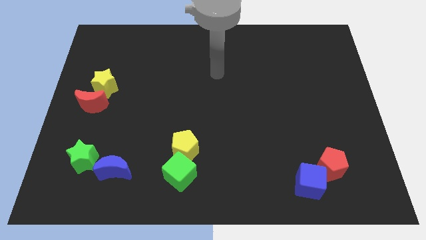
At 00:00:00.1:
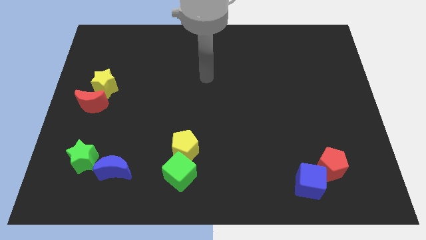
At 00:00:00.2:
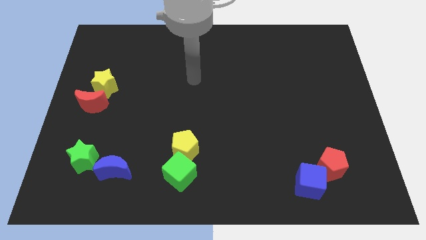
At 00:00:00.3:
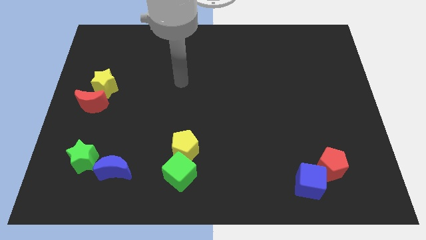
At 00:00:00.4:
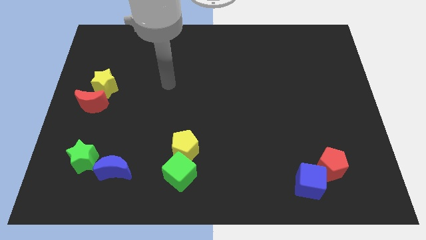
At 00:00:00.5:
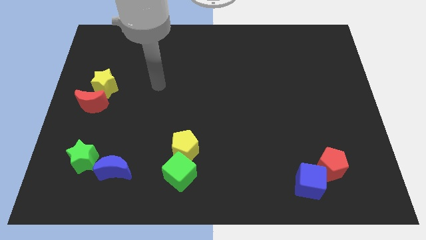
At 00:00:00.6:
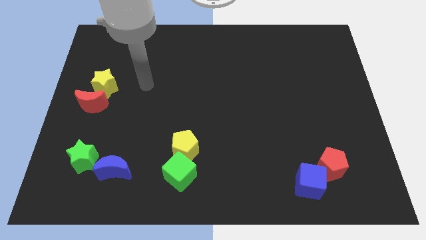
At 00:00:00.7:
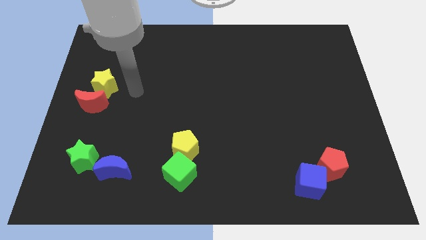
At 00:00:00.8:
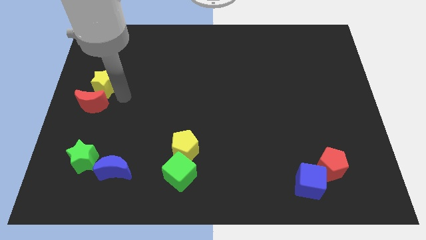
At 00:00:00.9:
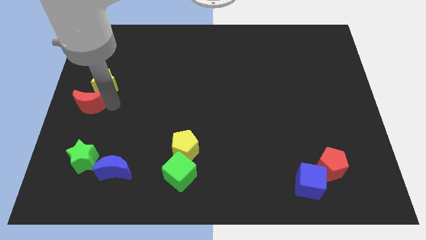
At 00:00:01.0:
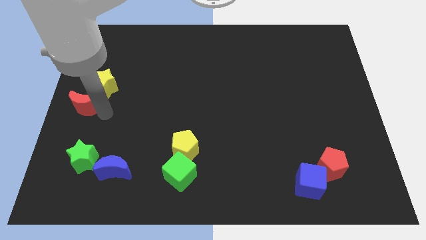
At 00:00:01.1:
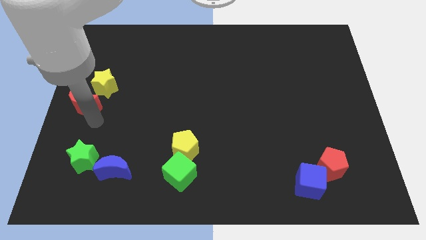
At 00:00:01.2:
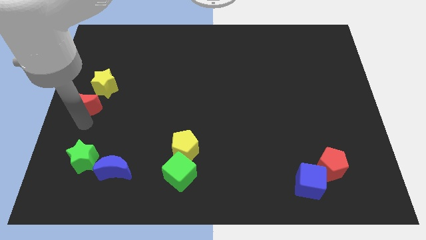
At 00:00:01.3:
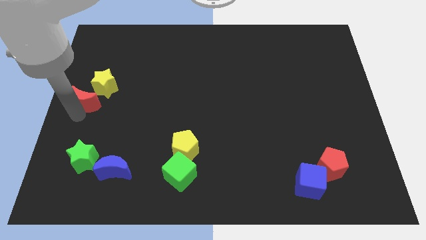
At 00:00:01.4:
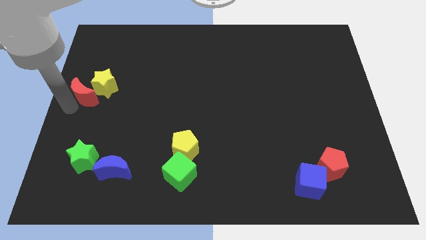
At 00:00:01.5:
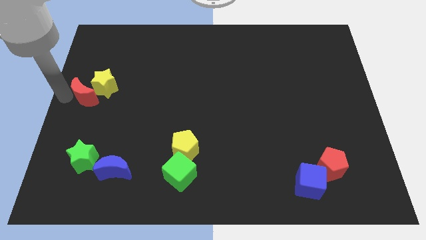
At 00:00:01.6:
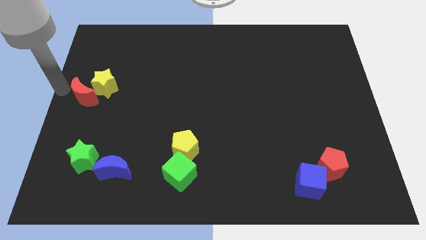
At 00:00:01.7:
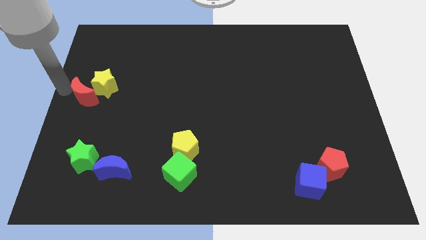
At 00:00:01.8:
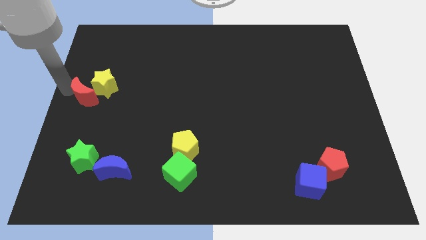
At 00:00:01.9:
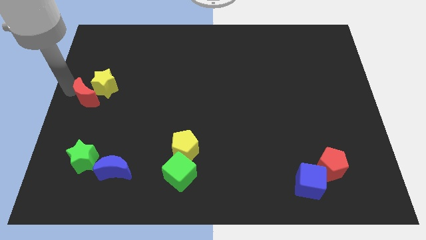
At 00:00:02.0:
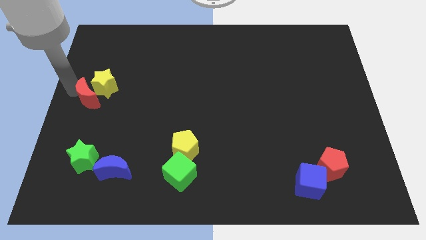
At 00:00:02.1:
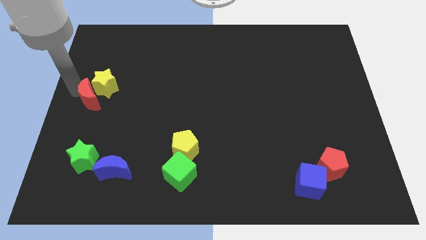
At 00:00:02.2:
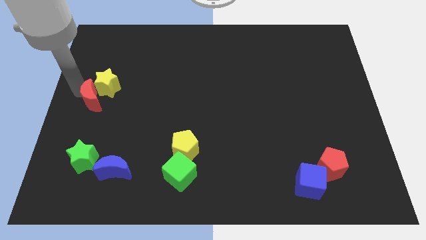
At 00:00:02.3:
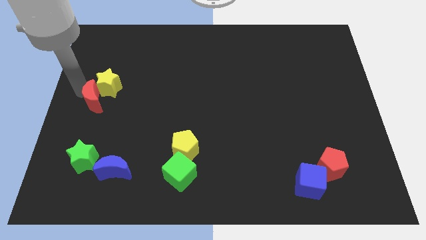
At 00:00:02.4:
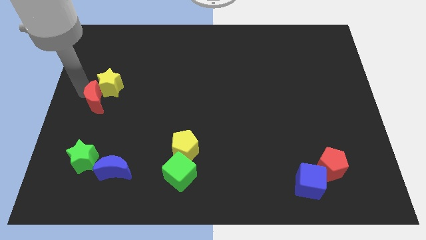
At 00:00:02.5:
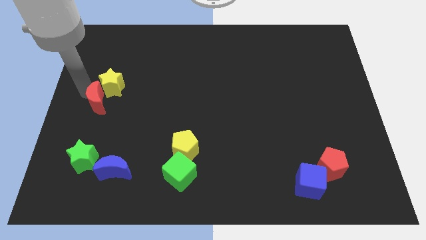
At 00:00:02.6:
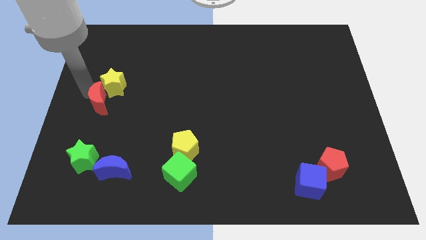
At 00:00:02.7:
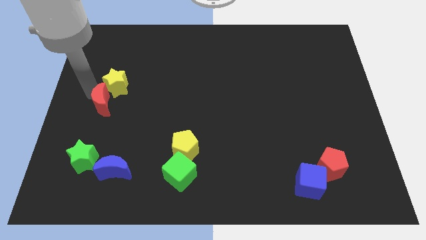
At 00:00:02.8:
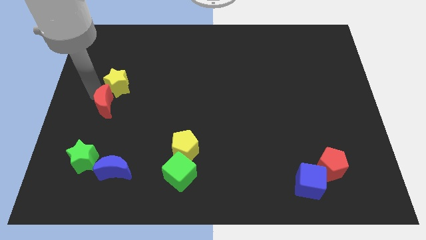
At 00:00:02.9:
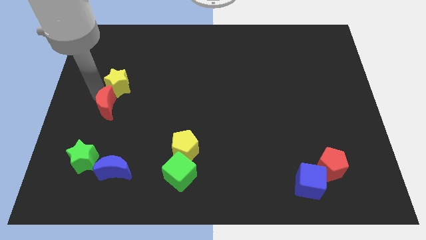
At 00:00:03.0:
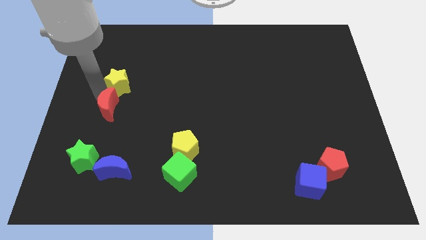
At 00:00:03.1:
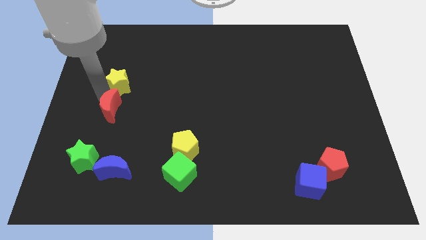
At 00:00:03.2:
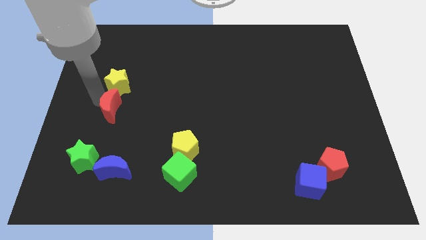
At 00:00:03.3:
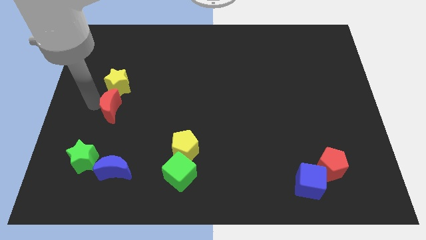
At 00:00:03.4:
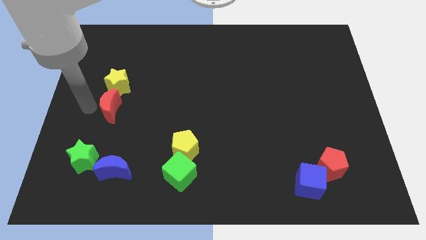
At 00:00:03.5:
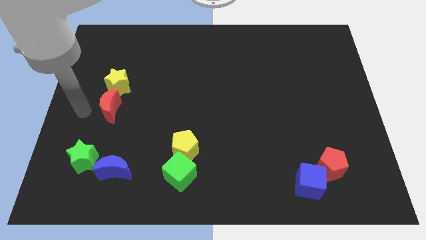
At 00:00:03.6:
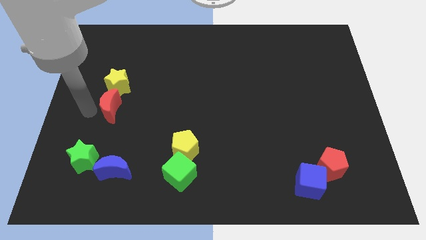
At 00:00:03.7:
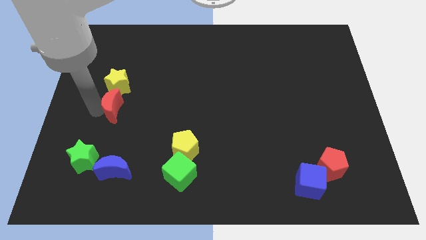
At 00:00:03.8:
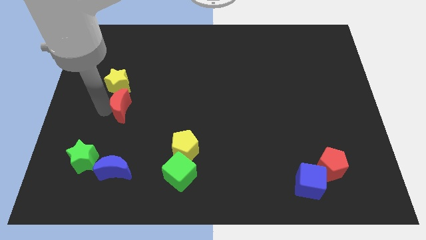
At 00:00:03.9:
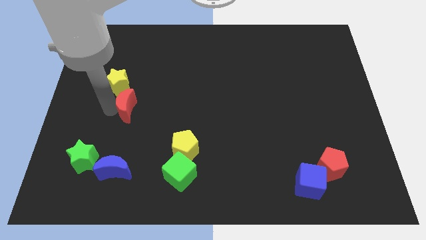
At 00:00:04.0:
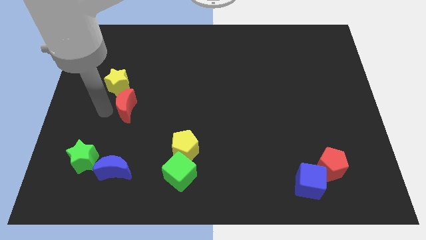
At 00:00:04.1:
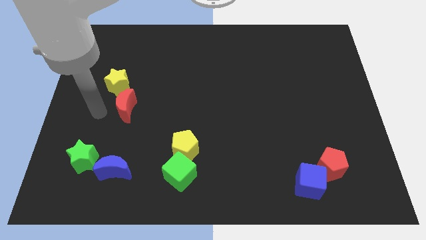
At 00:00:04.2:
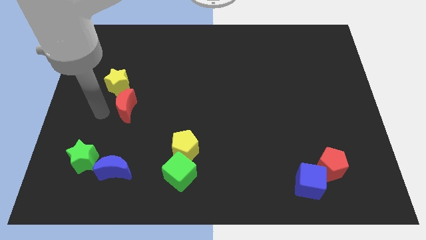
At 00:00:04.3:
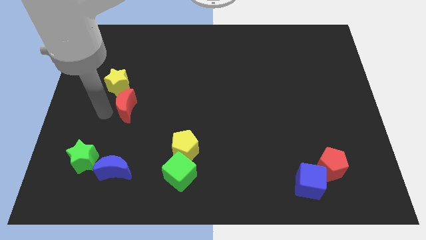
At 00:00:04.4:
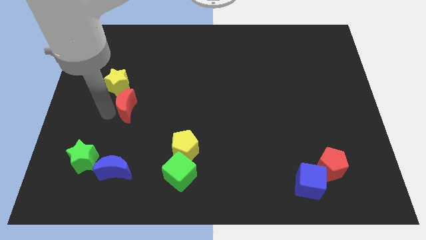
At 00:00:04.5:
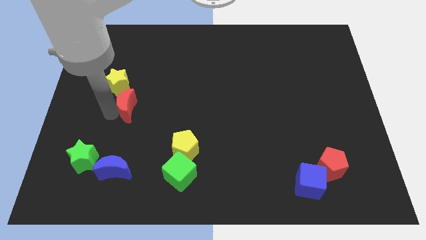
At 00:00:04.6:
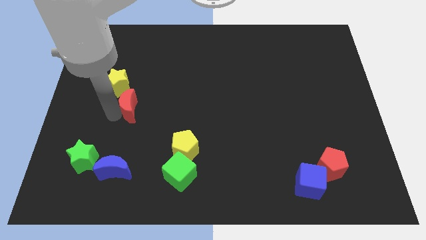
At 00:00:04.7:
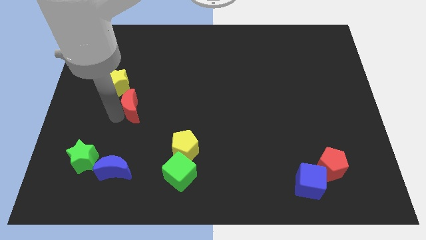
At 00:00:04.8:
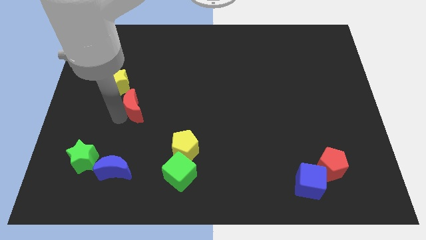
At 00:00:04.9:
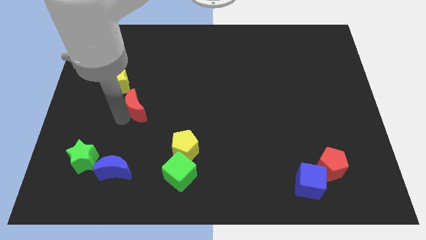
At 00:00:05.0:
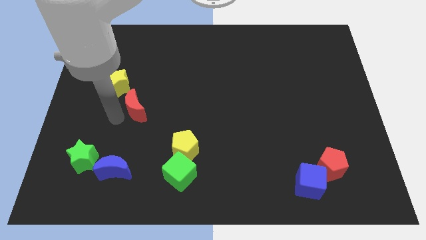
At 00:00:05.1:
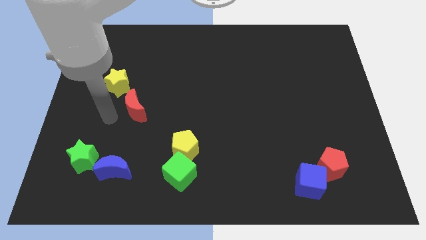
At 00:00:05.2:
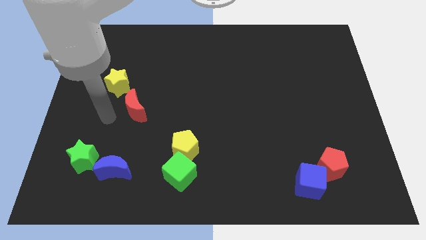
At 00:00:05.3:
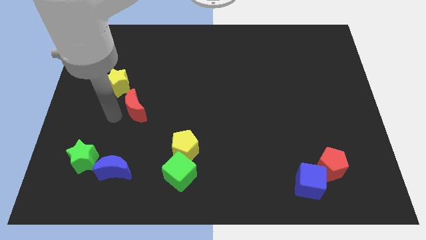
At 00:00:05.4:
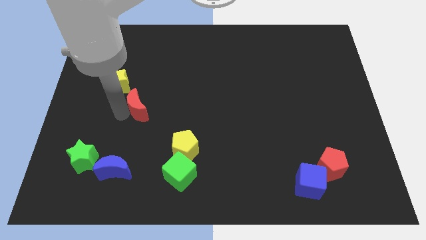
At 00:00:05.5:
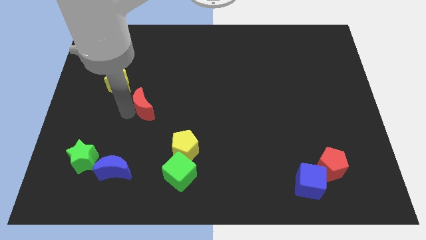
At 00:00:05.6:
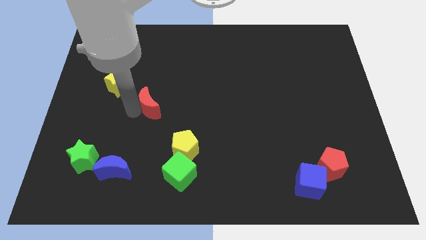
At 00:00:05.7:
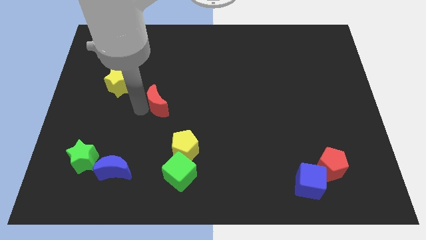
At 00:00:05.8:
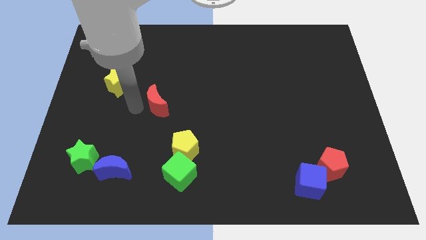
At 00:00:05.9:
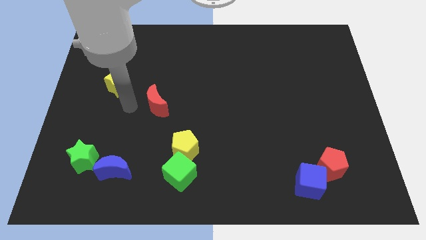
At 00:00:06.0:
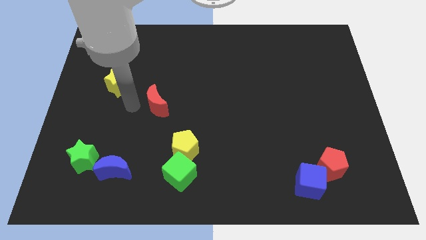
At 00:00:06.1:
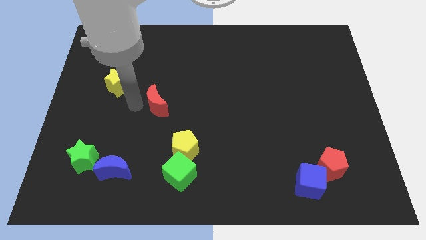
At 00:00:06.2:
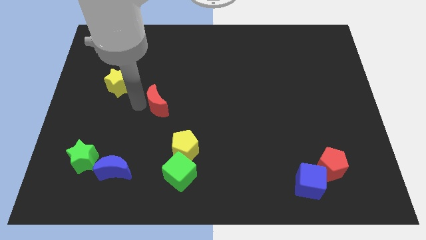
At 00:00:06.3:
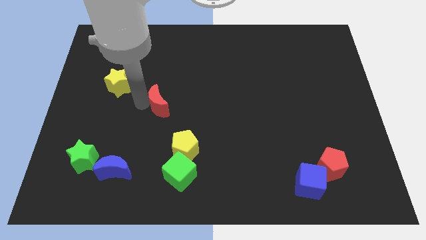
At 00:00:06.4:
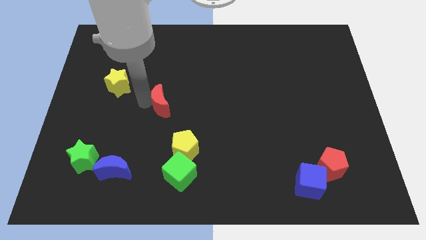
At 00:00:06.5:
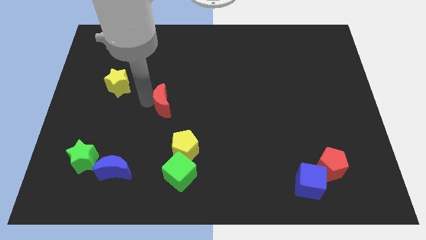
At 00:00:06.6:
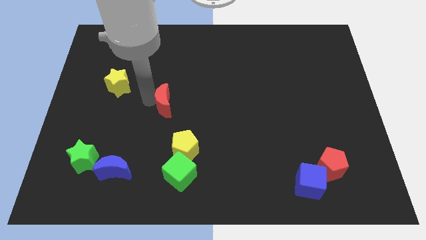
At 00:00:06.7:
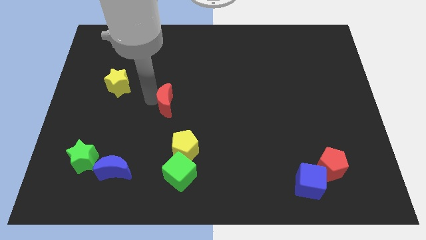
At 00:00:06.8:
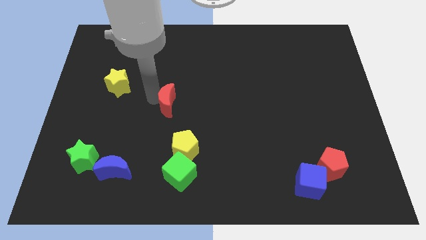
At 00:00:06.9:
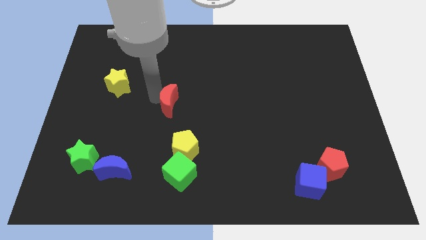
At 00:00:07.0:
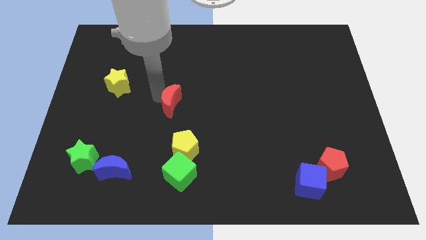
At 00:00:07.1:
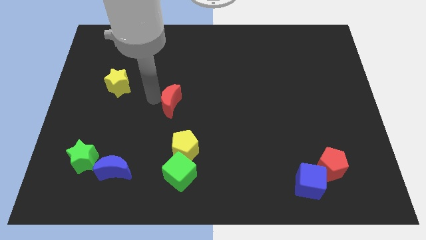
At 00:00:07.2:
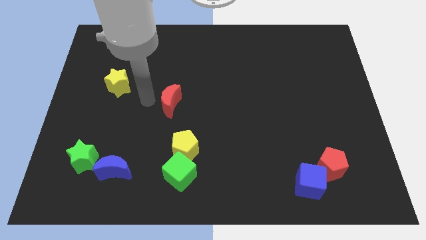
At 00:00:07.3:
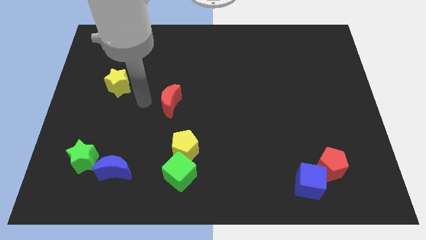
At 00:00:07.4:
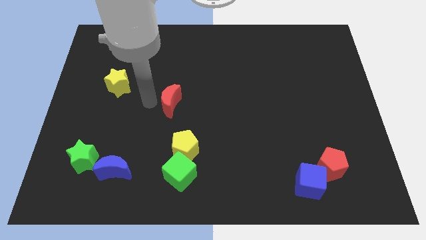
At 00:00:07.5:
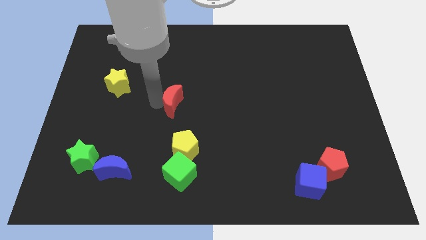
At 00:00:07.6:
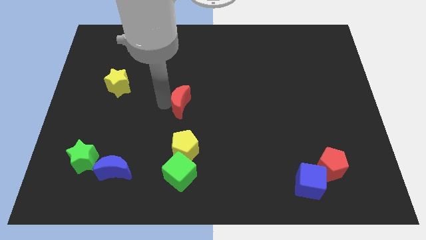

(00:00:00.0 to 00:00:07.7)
move the red moon right
